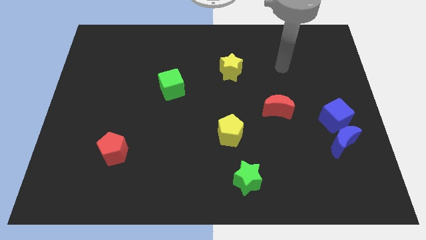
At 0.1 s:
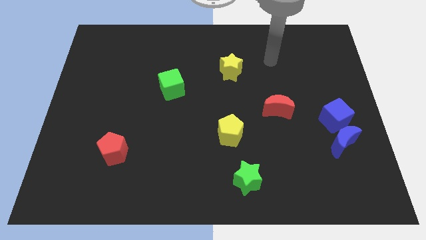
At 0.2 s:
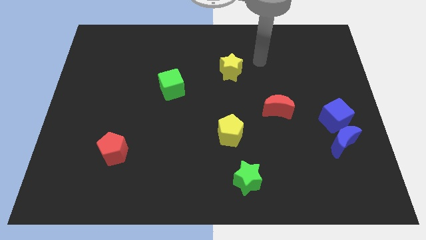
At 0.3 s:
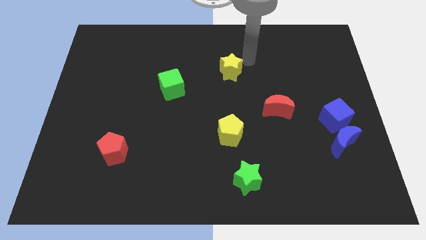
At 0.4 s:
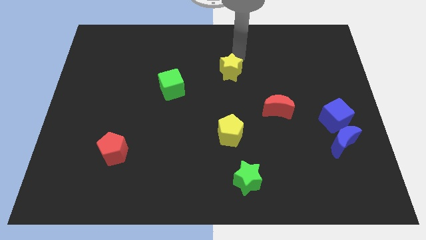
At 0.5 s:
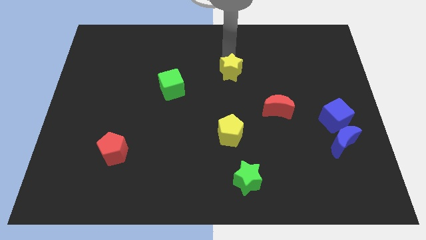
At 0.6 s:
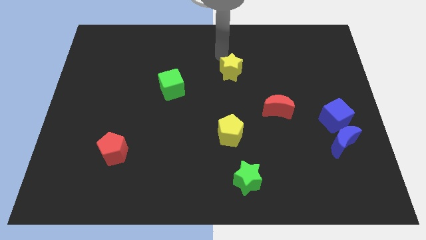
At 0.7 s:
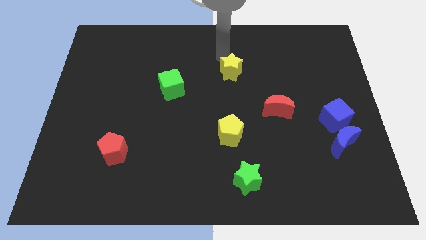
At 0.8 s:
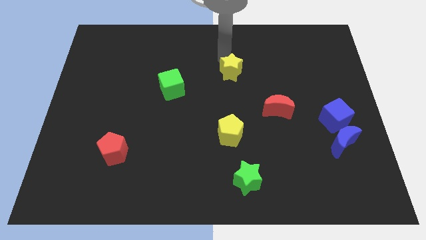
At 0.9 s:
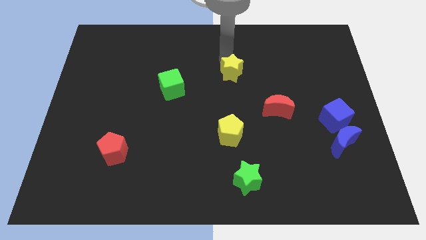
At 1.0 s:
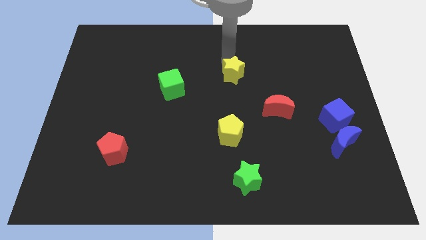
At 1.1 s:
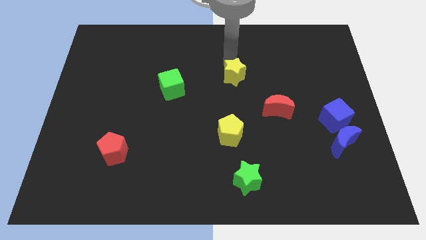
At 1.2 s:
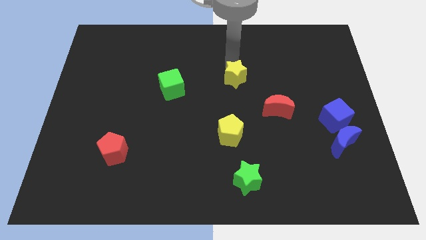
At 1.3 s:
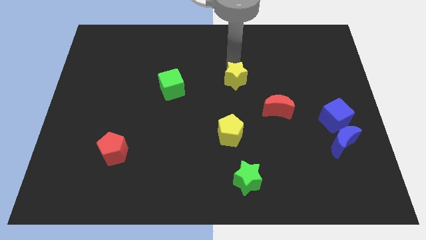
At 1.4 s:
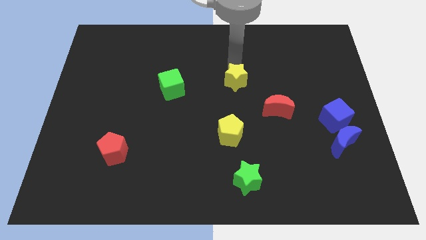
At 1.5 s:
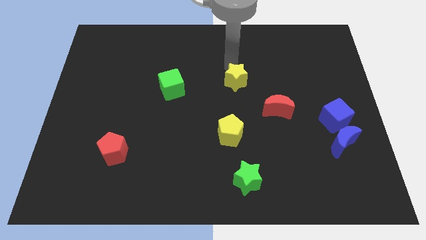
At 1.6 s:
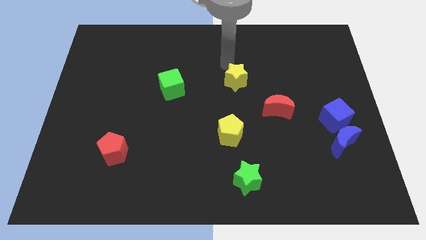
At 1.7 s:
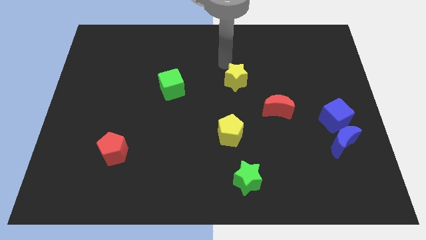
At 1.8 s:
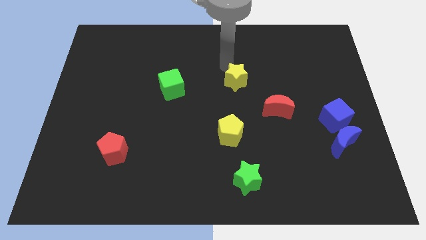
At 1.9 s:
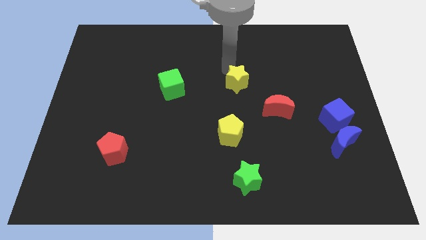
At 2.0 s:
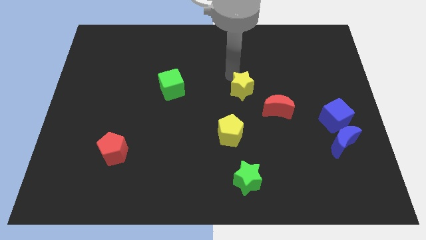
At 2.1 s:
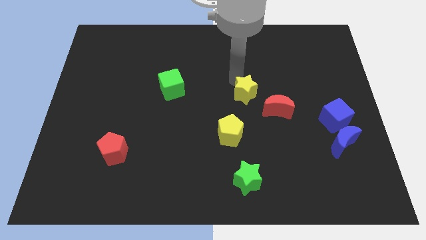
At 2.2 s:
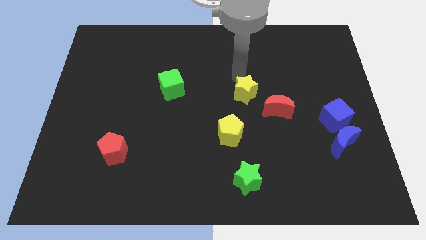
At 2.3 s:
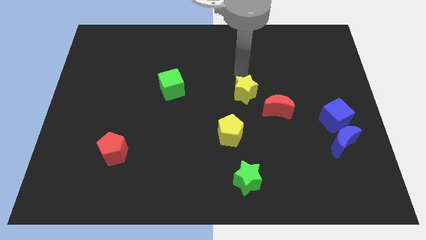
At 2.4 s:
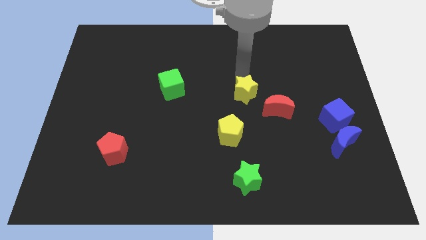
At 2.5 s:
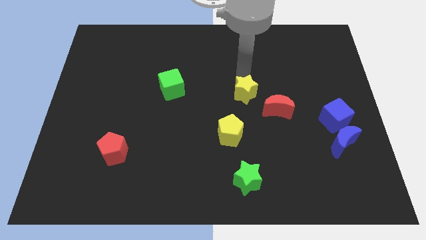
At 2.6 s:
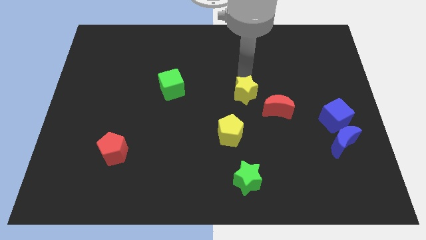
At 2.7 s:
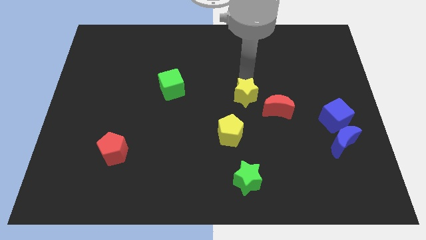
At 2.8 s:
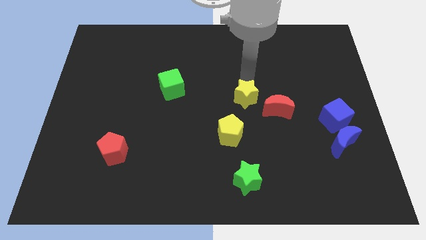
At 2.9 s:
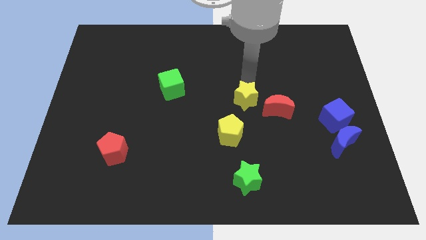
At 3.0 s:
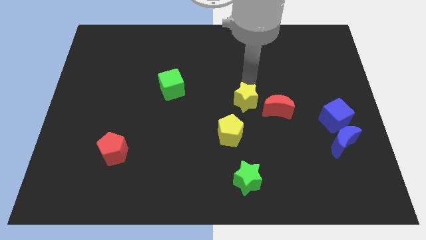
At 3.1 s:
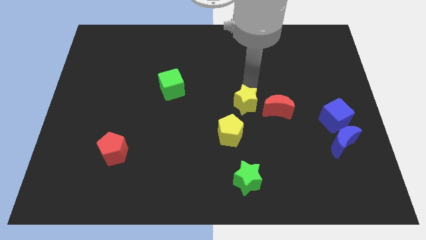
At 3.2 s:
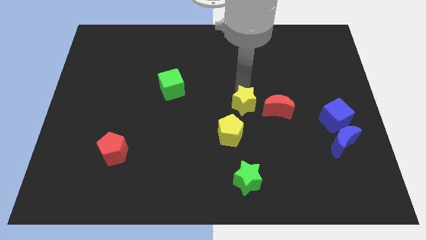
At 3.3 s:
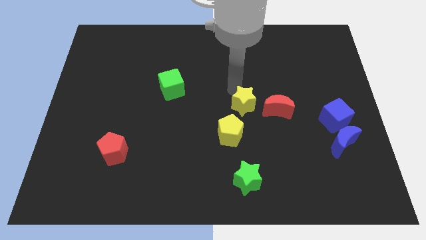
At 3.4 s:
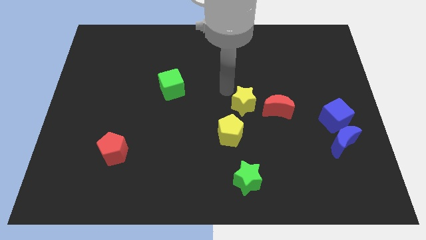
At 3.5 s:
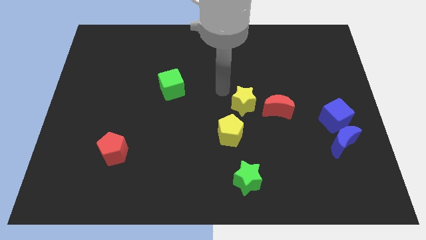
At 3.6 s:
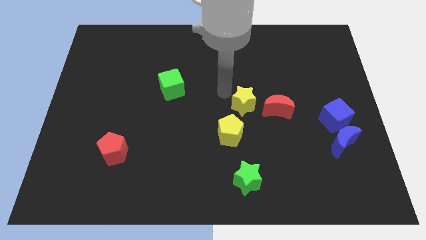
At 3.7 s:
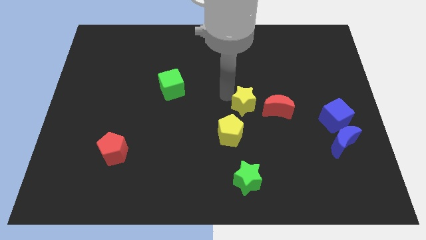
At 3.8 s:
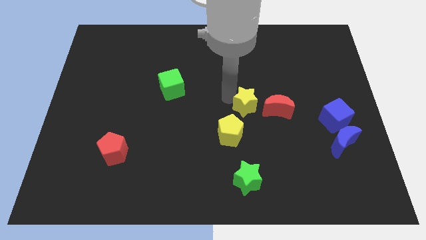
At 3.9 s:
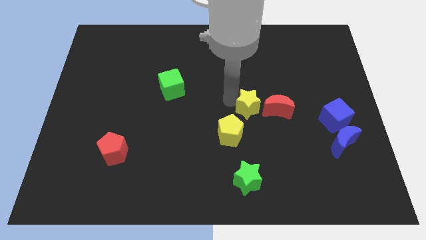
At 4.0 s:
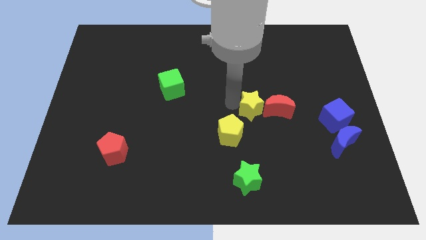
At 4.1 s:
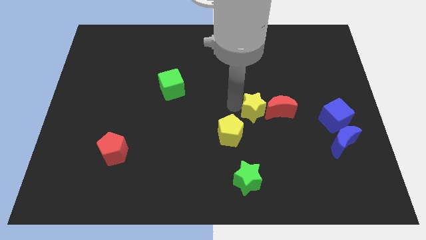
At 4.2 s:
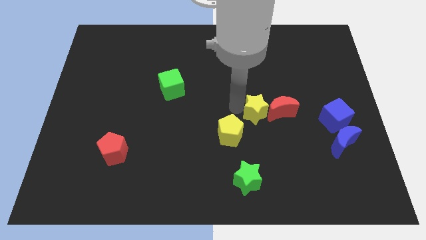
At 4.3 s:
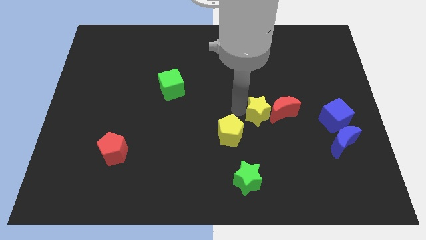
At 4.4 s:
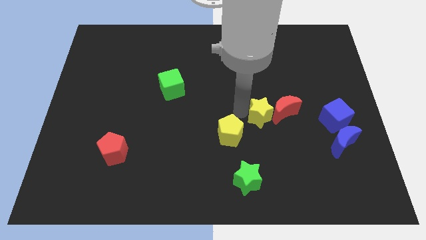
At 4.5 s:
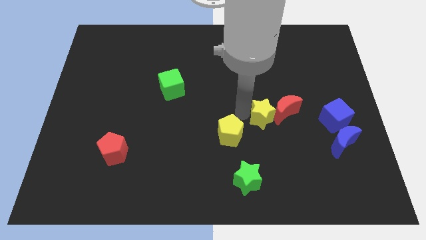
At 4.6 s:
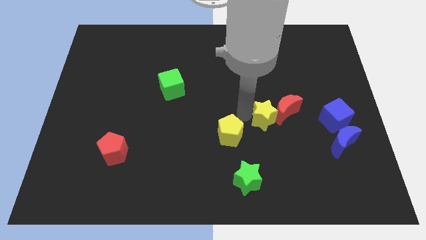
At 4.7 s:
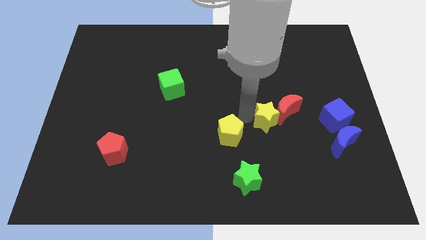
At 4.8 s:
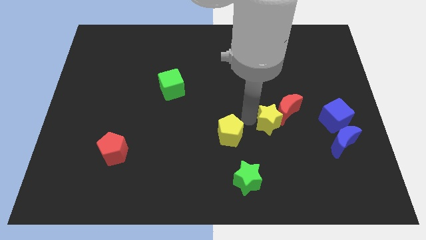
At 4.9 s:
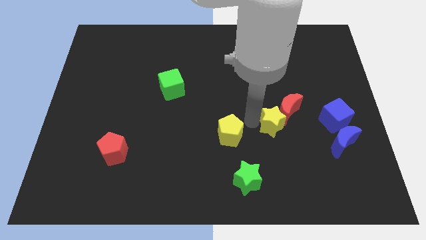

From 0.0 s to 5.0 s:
push the yellow star to the bottom side of the red moon

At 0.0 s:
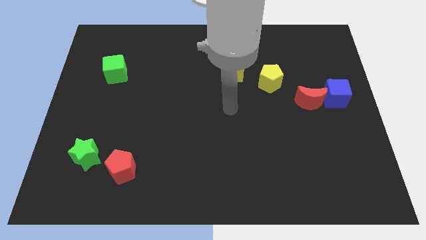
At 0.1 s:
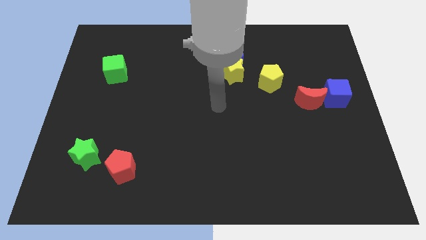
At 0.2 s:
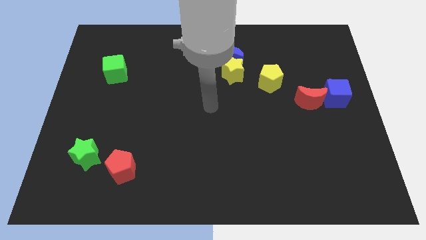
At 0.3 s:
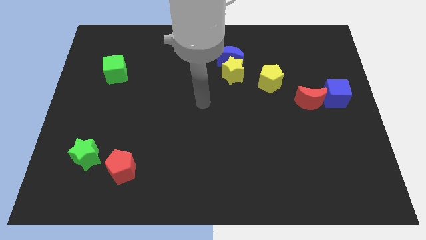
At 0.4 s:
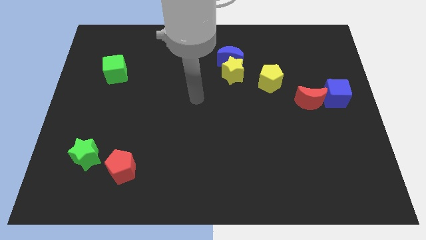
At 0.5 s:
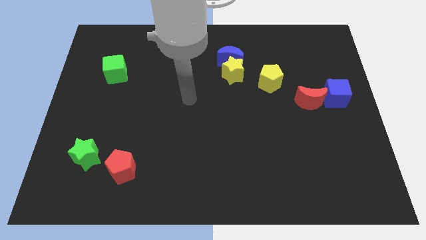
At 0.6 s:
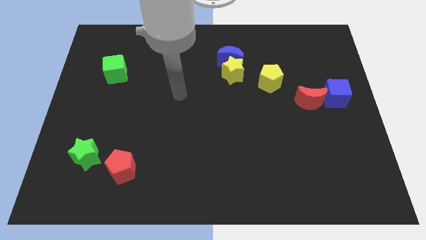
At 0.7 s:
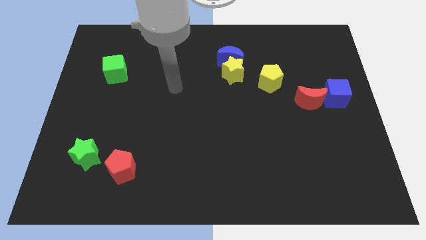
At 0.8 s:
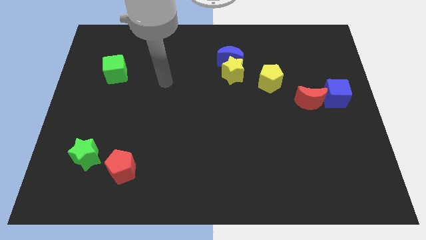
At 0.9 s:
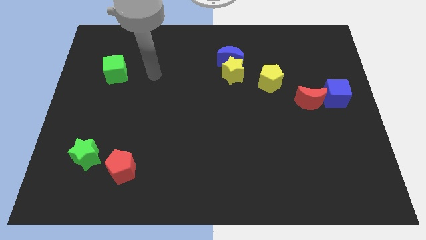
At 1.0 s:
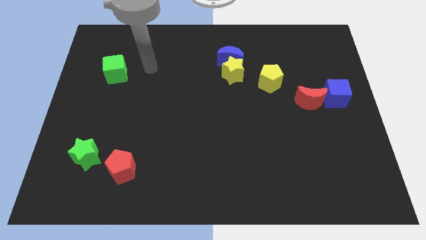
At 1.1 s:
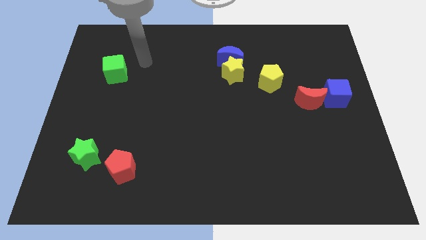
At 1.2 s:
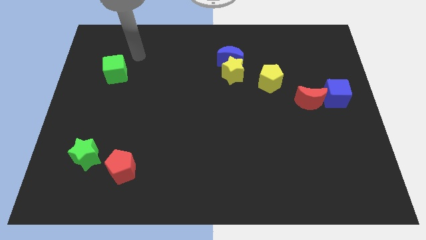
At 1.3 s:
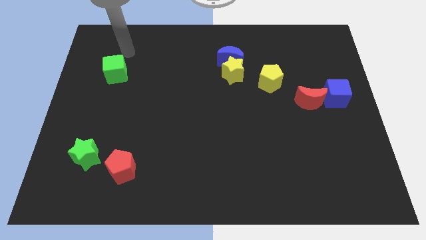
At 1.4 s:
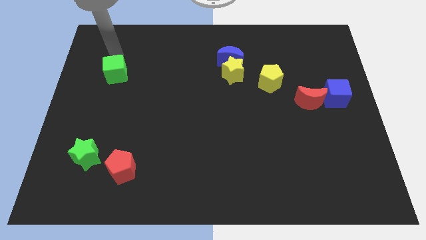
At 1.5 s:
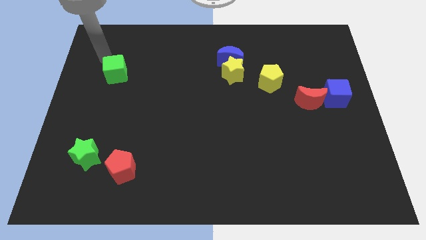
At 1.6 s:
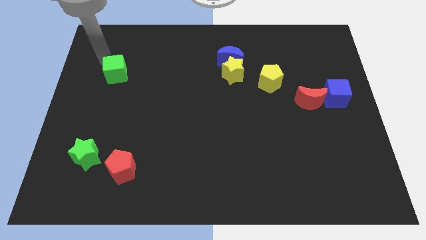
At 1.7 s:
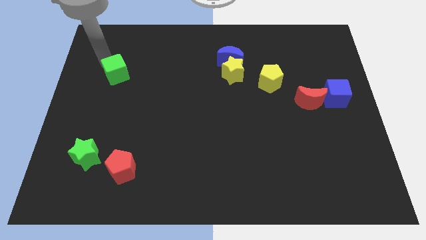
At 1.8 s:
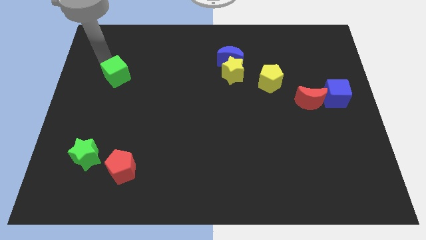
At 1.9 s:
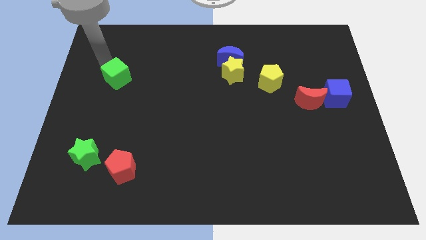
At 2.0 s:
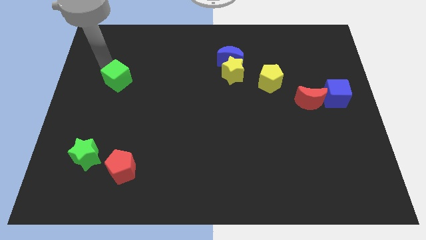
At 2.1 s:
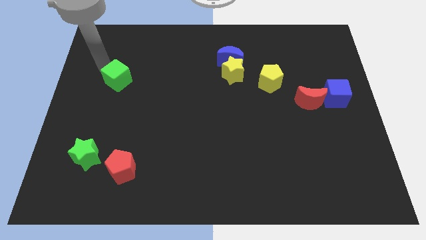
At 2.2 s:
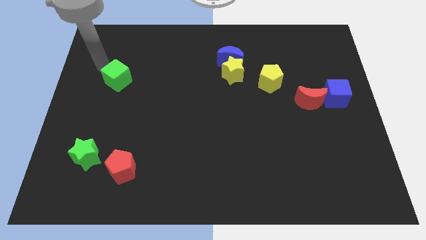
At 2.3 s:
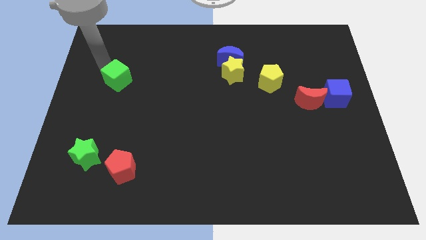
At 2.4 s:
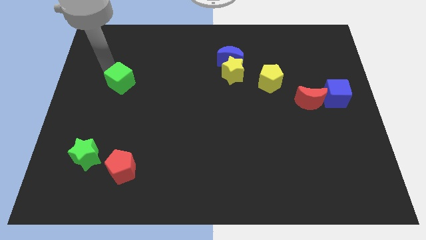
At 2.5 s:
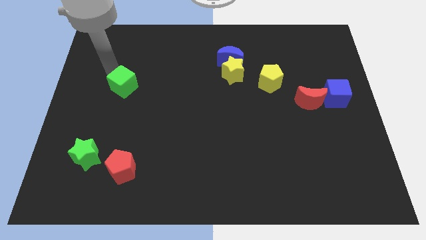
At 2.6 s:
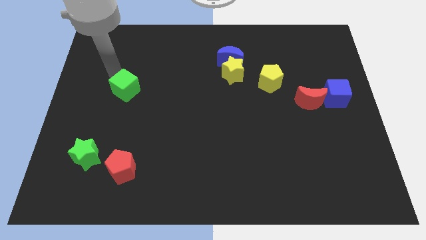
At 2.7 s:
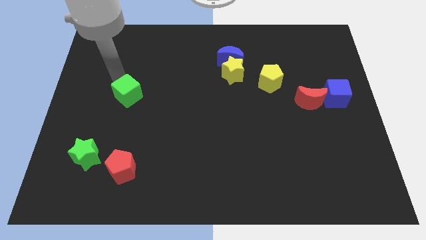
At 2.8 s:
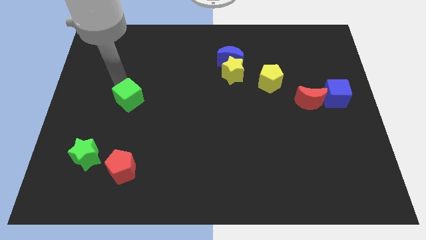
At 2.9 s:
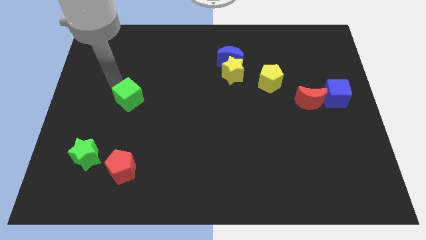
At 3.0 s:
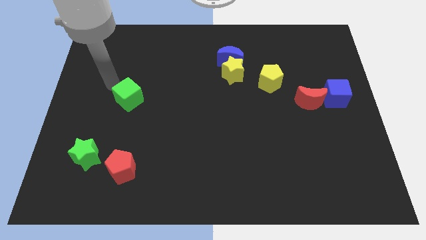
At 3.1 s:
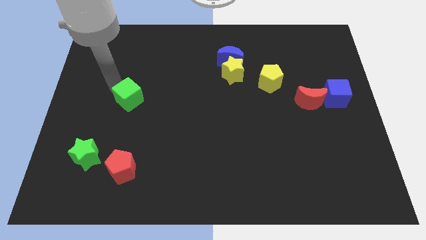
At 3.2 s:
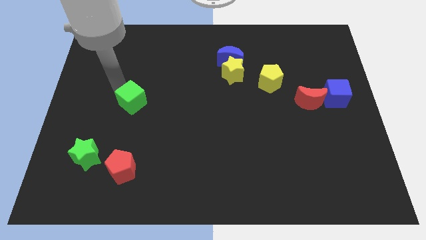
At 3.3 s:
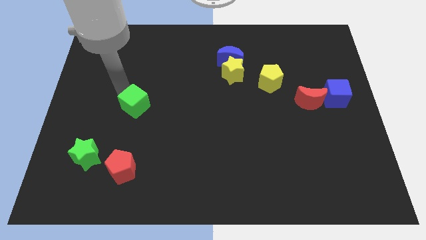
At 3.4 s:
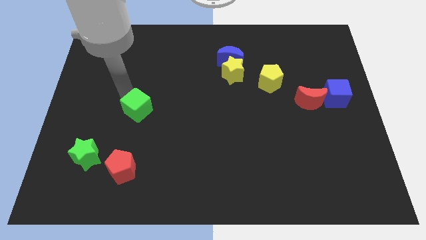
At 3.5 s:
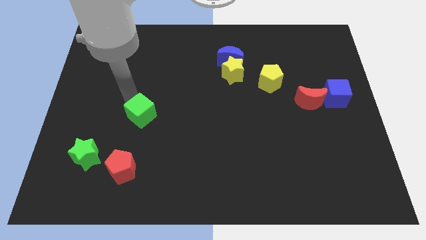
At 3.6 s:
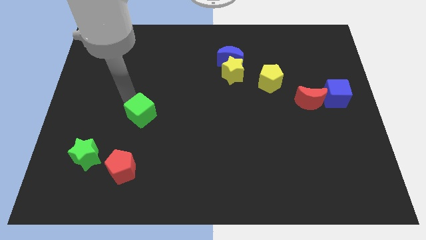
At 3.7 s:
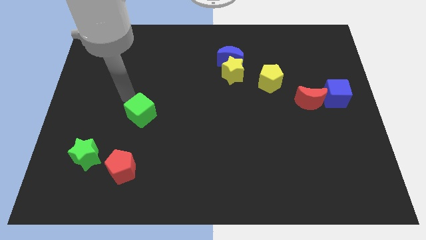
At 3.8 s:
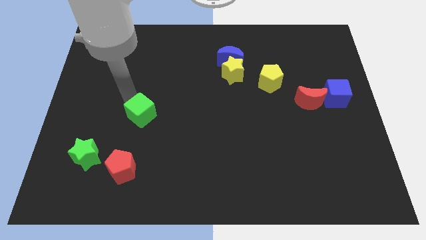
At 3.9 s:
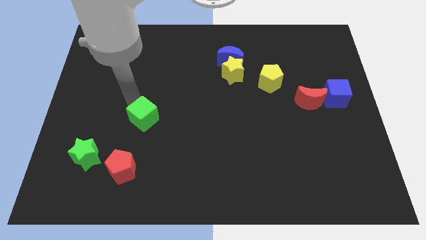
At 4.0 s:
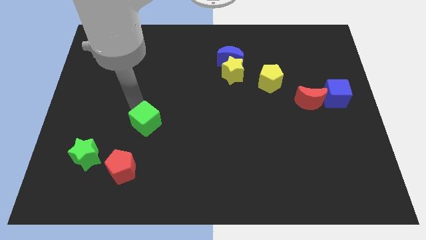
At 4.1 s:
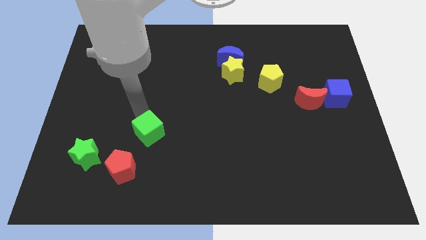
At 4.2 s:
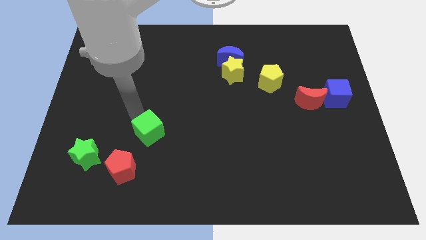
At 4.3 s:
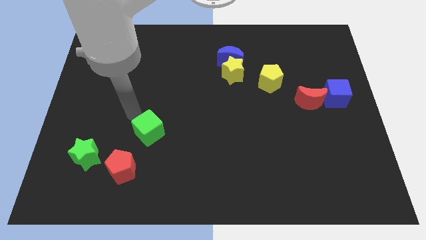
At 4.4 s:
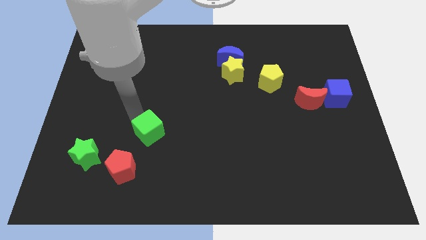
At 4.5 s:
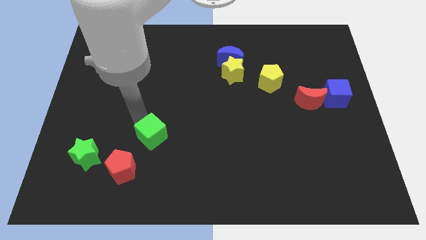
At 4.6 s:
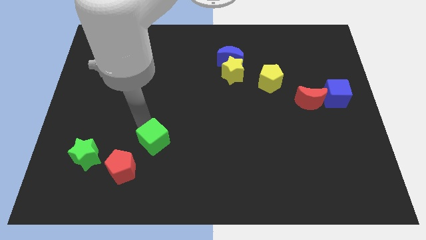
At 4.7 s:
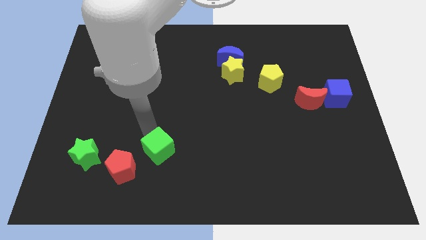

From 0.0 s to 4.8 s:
slide the green cube to the right of the red pentagon
